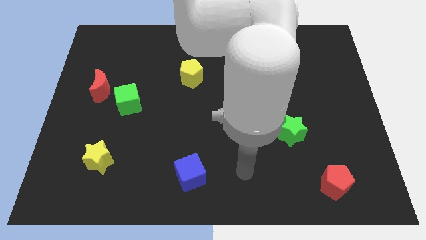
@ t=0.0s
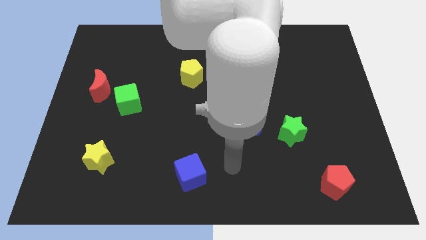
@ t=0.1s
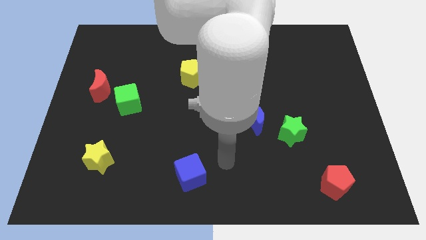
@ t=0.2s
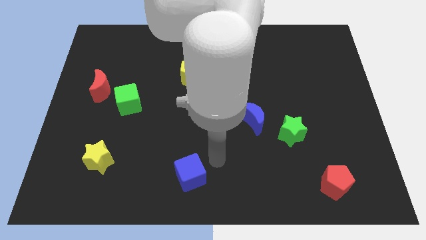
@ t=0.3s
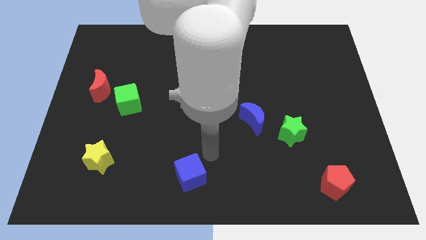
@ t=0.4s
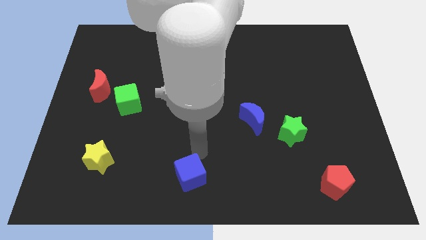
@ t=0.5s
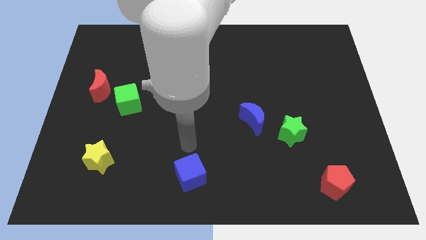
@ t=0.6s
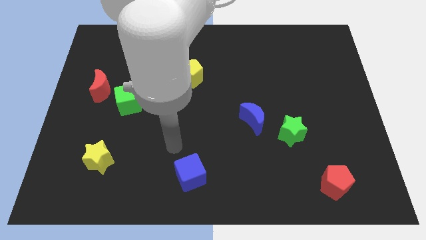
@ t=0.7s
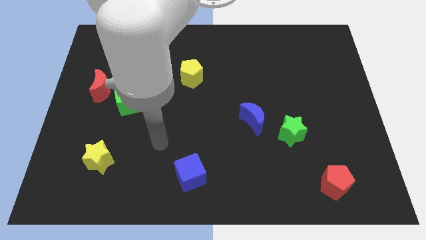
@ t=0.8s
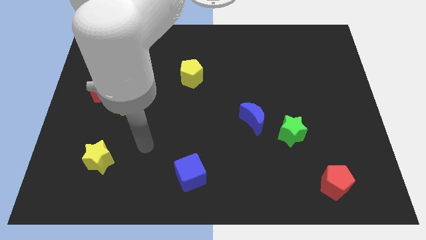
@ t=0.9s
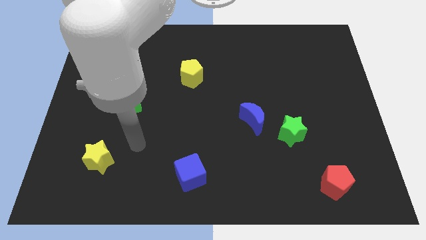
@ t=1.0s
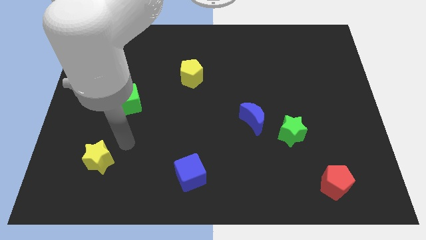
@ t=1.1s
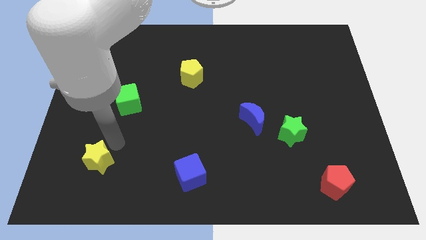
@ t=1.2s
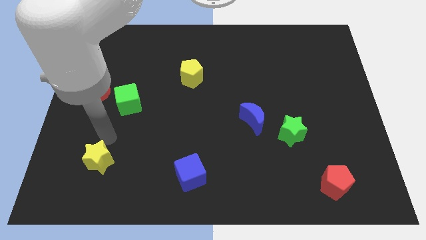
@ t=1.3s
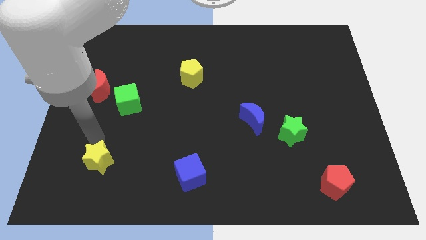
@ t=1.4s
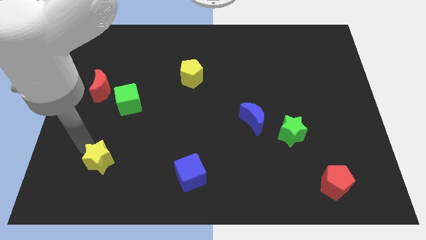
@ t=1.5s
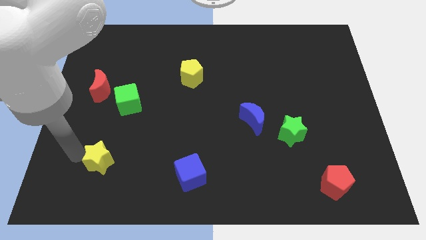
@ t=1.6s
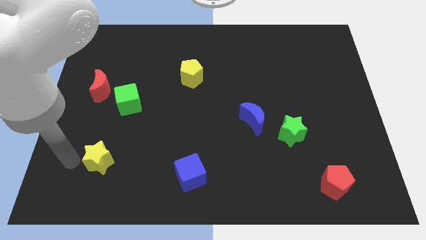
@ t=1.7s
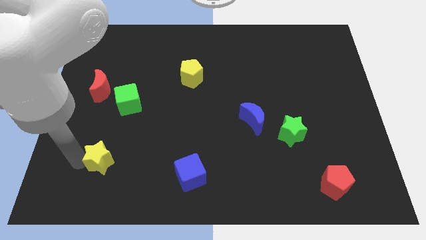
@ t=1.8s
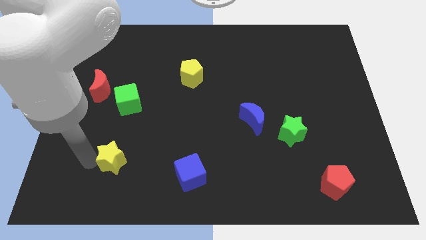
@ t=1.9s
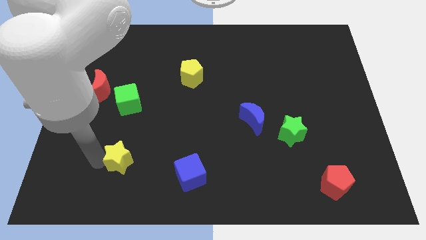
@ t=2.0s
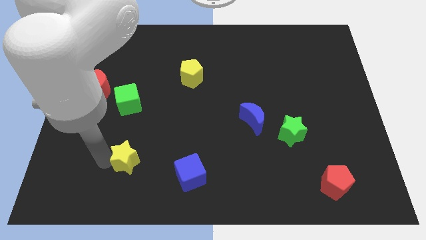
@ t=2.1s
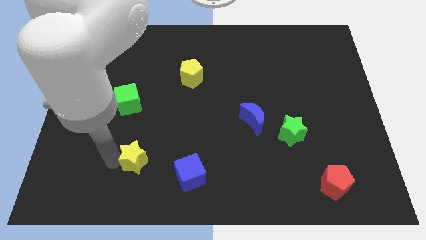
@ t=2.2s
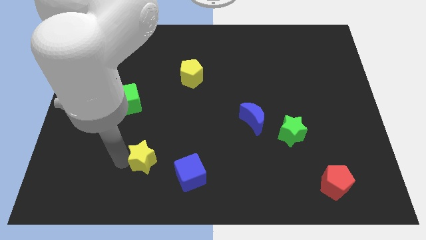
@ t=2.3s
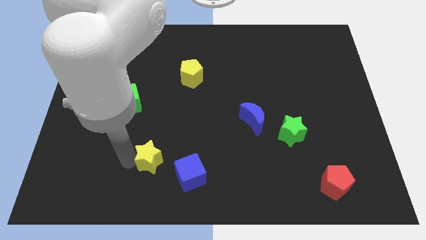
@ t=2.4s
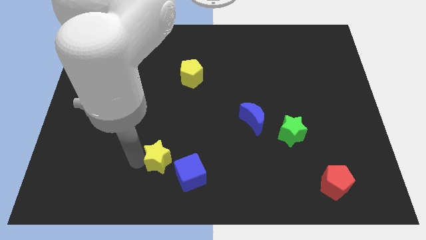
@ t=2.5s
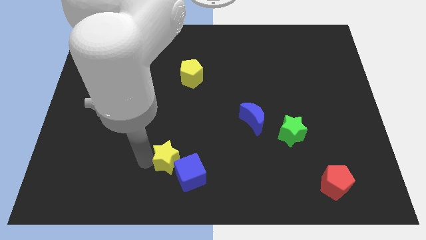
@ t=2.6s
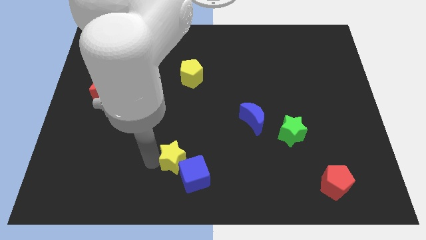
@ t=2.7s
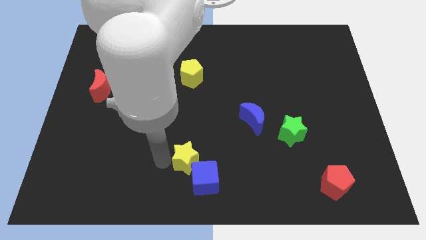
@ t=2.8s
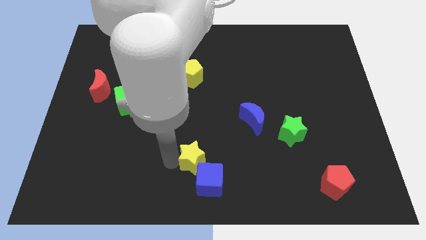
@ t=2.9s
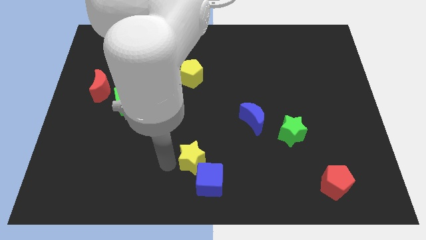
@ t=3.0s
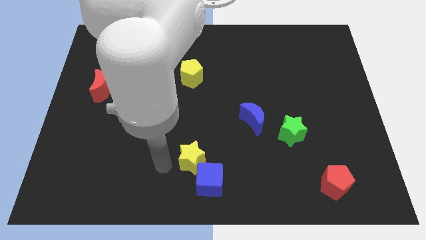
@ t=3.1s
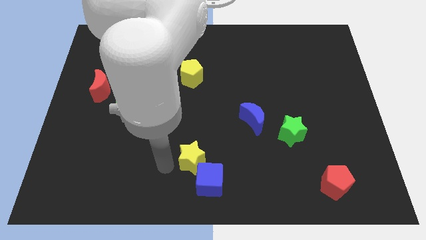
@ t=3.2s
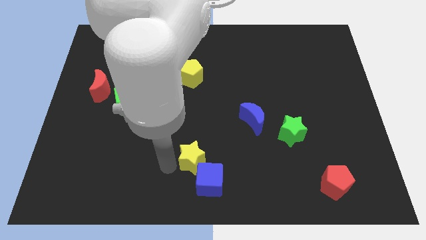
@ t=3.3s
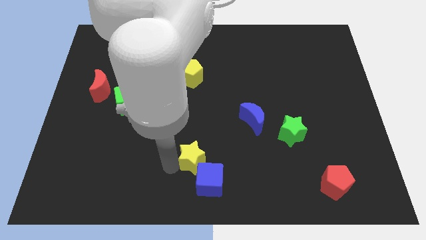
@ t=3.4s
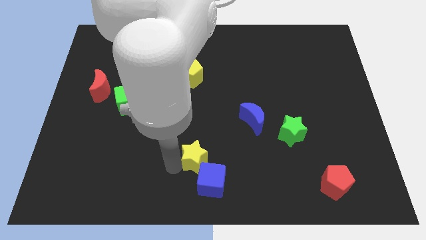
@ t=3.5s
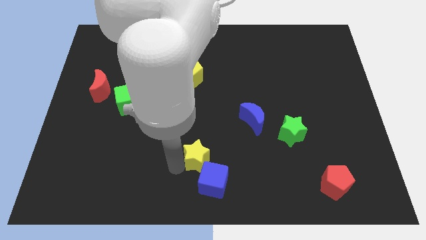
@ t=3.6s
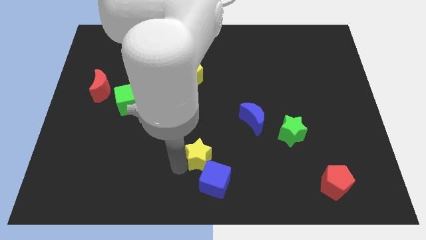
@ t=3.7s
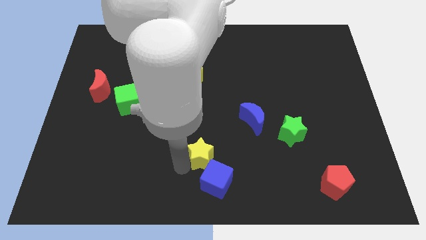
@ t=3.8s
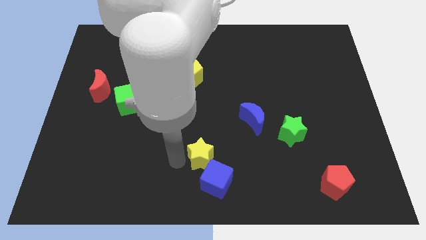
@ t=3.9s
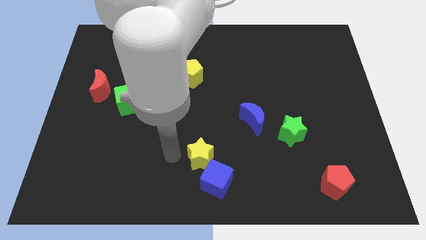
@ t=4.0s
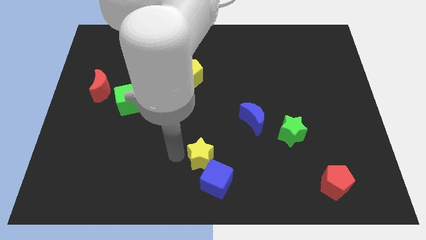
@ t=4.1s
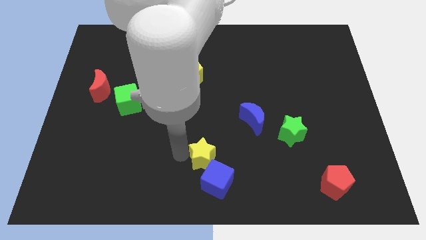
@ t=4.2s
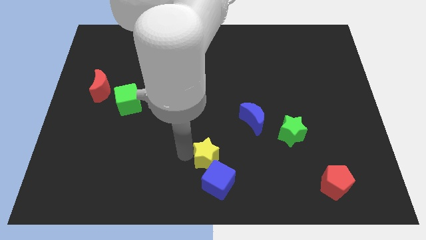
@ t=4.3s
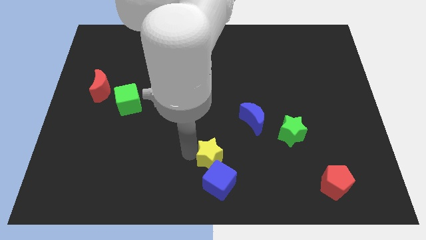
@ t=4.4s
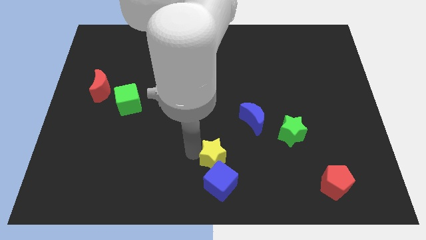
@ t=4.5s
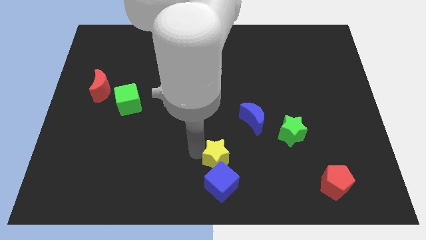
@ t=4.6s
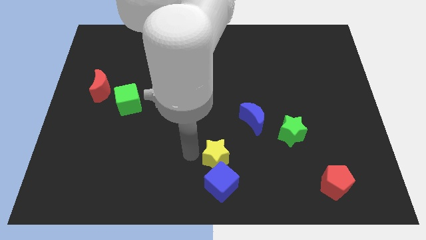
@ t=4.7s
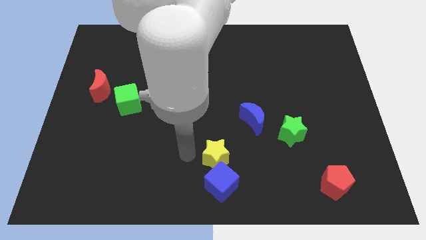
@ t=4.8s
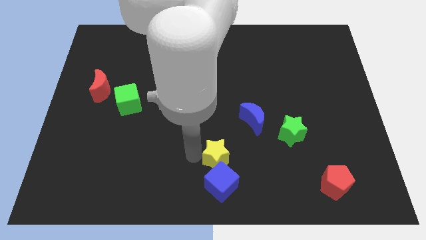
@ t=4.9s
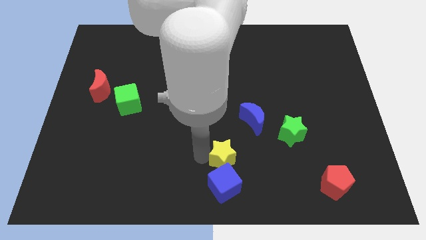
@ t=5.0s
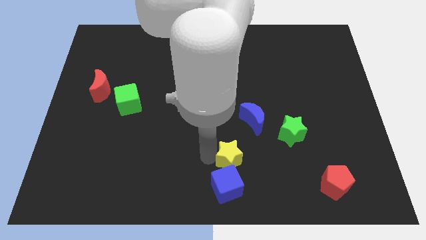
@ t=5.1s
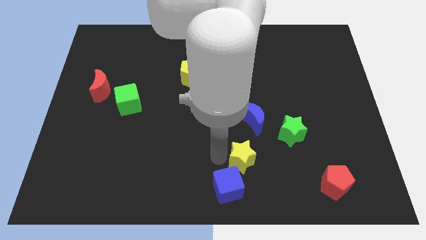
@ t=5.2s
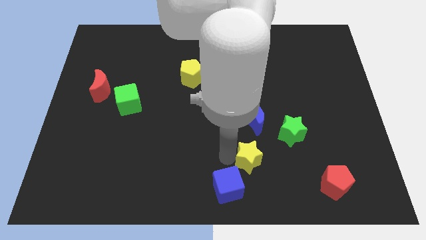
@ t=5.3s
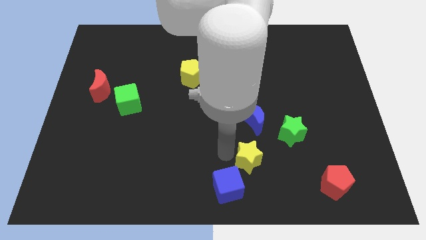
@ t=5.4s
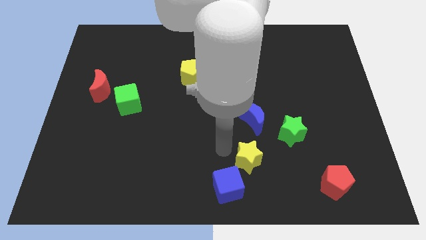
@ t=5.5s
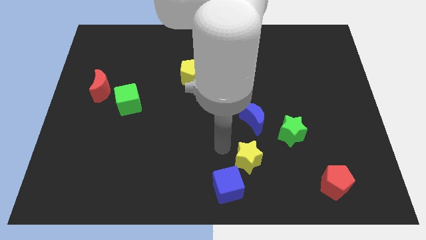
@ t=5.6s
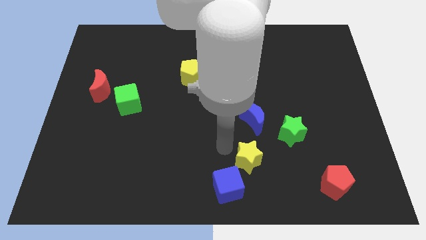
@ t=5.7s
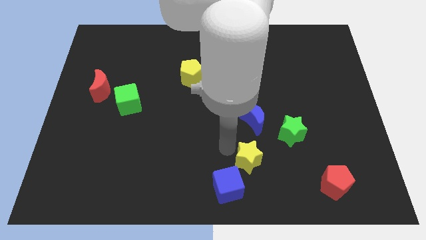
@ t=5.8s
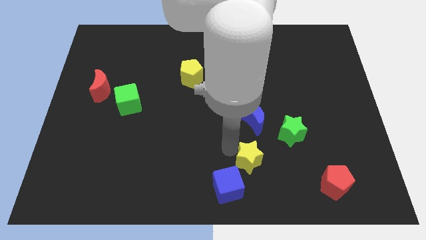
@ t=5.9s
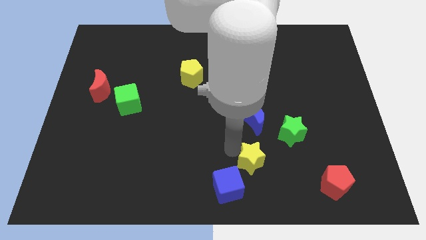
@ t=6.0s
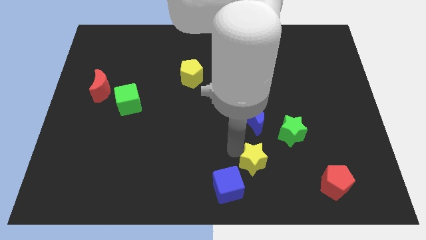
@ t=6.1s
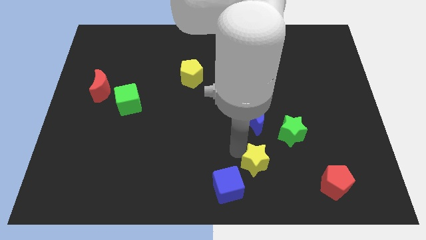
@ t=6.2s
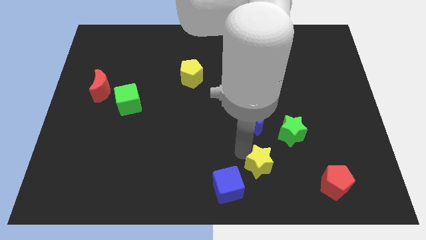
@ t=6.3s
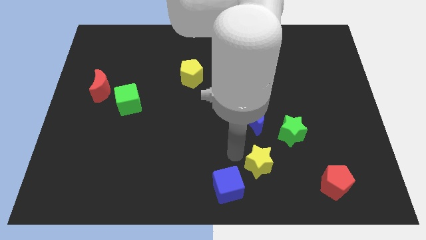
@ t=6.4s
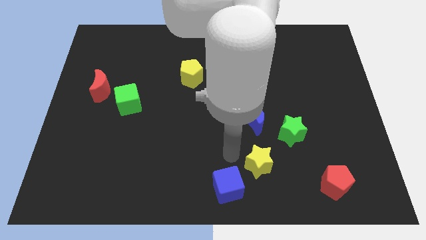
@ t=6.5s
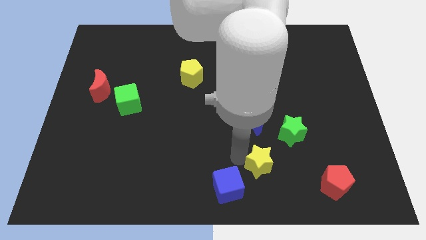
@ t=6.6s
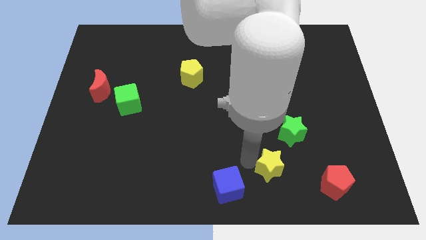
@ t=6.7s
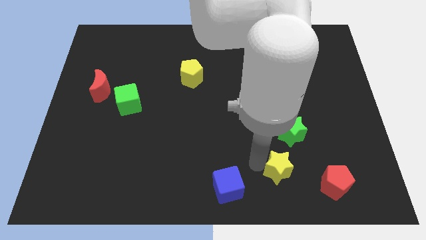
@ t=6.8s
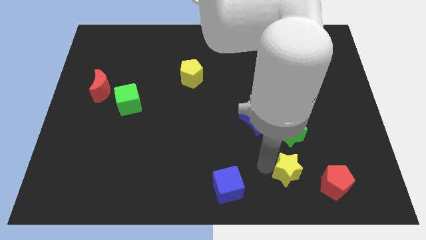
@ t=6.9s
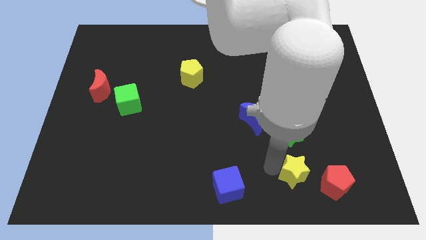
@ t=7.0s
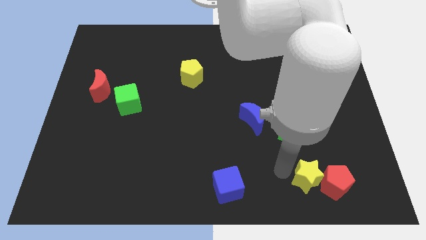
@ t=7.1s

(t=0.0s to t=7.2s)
move the yellow star to the red pentagon

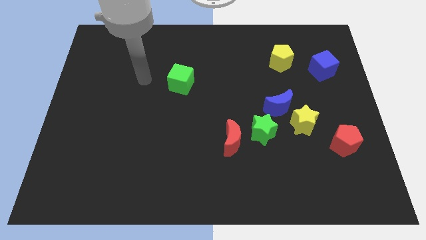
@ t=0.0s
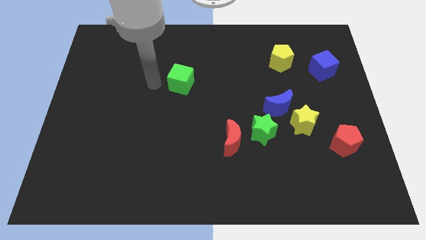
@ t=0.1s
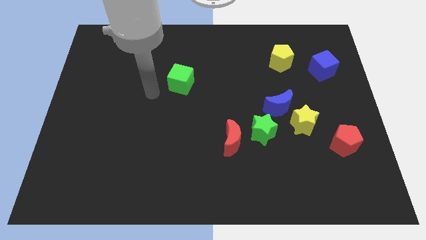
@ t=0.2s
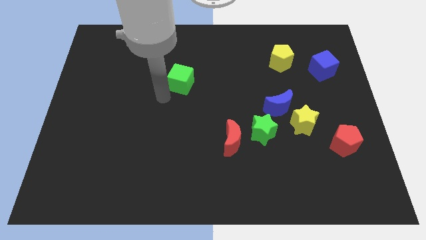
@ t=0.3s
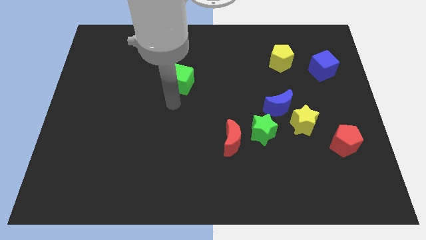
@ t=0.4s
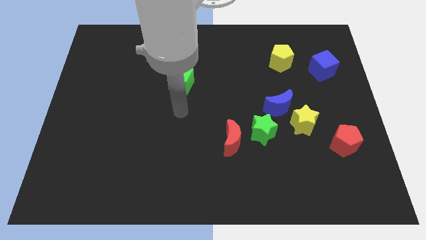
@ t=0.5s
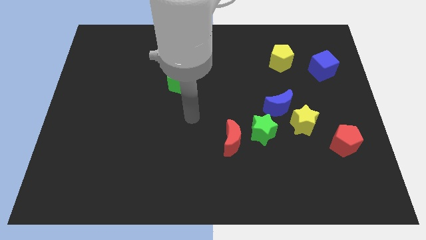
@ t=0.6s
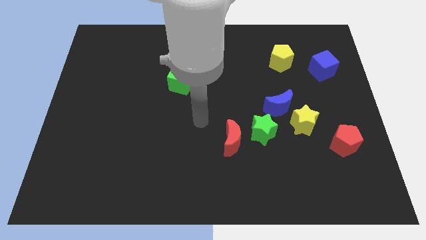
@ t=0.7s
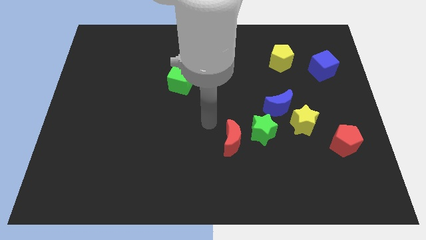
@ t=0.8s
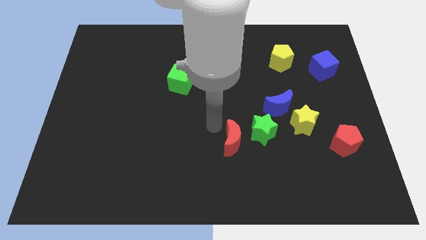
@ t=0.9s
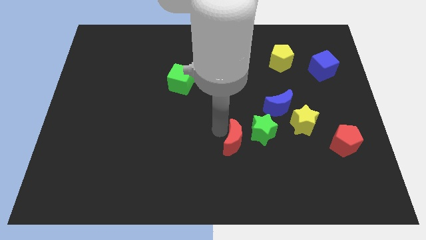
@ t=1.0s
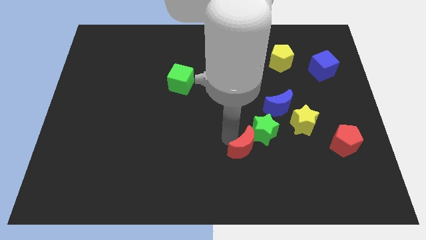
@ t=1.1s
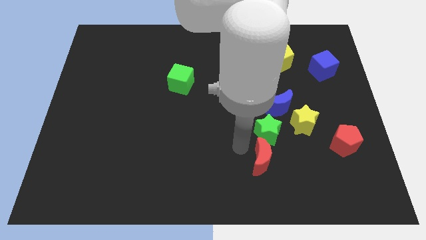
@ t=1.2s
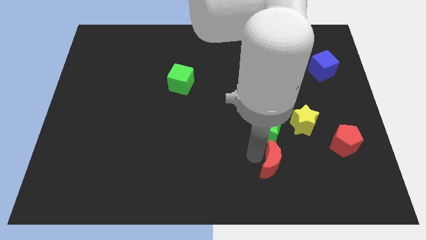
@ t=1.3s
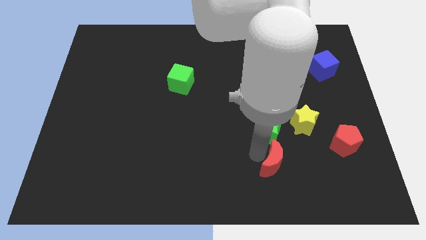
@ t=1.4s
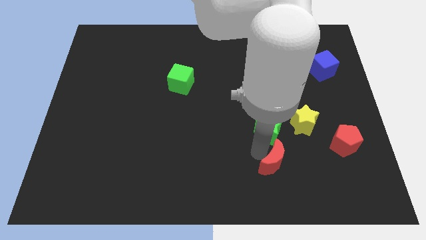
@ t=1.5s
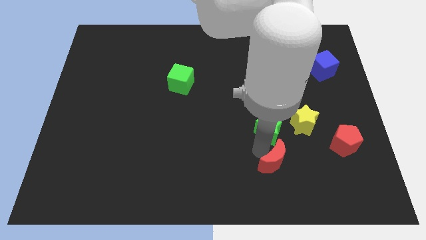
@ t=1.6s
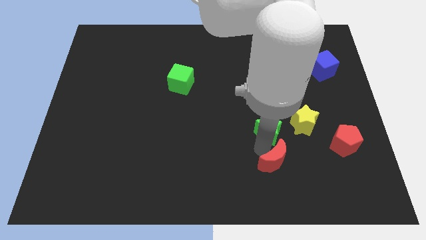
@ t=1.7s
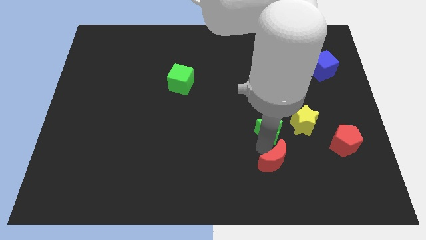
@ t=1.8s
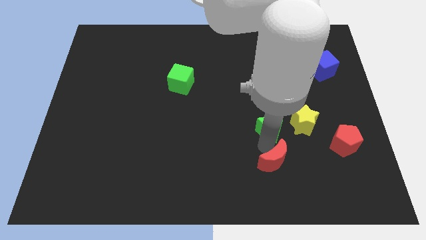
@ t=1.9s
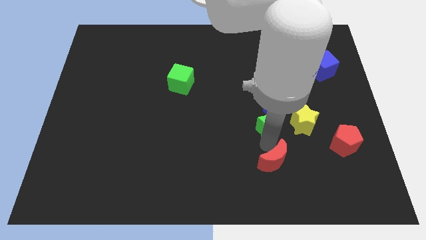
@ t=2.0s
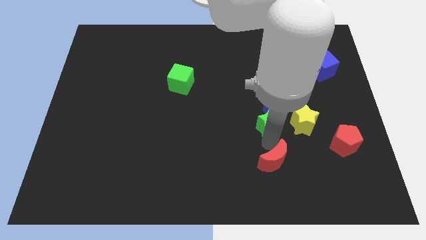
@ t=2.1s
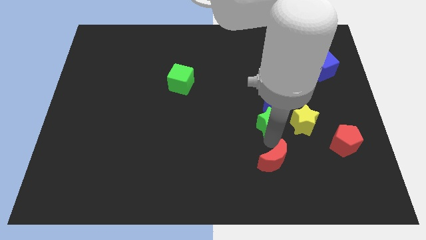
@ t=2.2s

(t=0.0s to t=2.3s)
put the green star towards the blue moon
